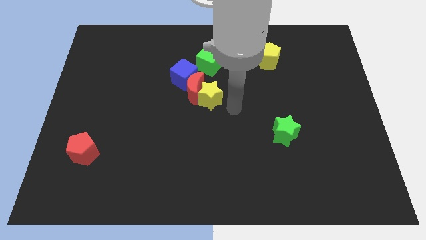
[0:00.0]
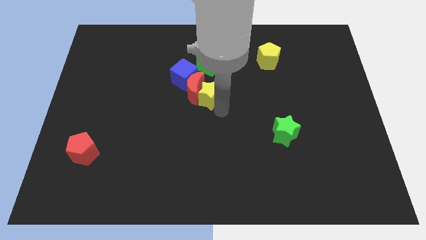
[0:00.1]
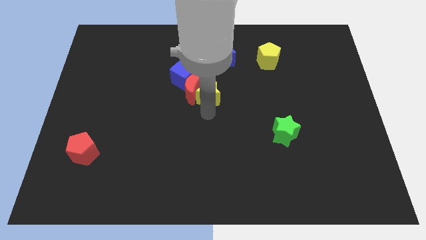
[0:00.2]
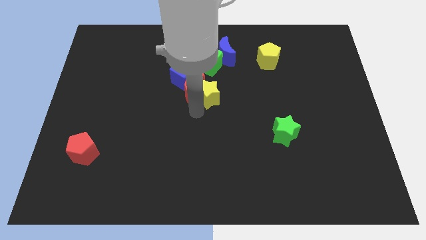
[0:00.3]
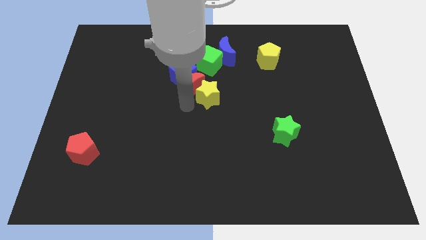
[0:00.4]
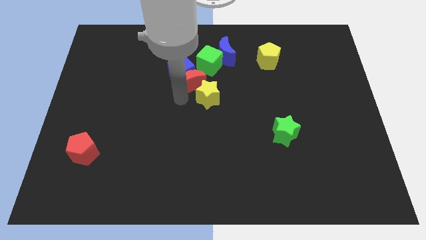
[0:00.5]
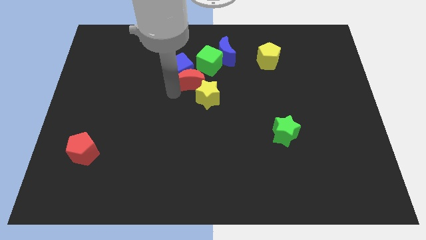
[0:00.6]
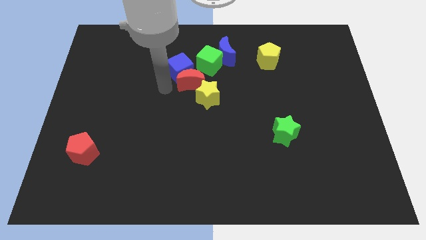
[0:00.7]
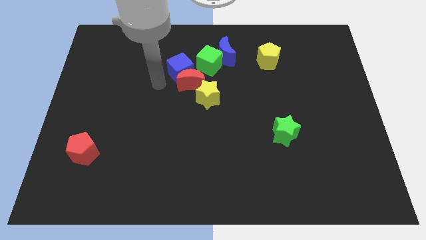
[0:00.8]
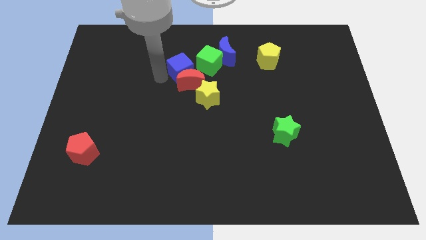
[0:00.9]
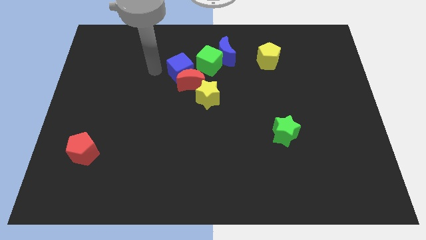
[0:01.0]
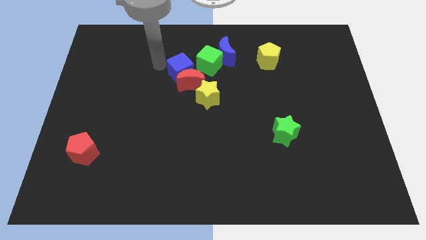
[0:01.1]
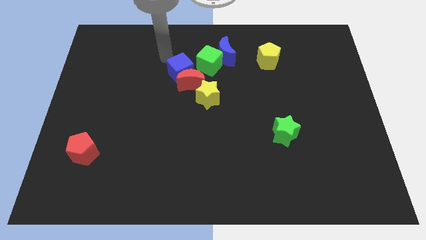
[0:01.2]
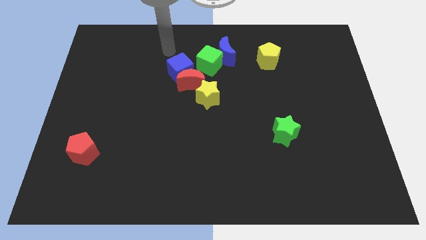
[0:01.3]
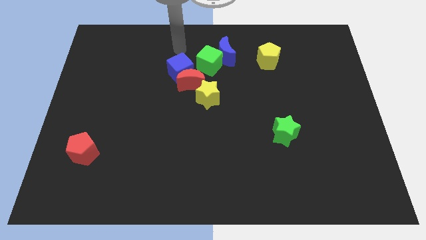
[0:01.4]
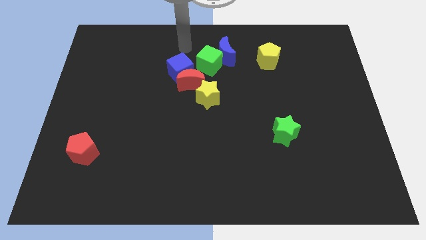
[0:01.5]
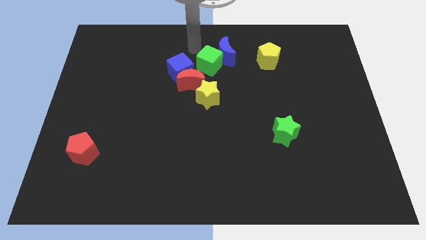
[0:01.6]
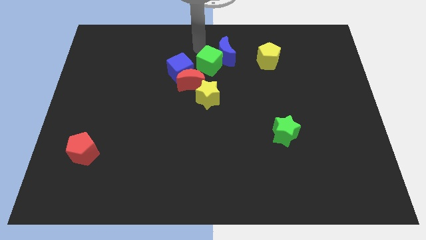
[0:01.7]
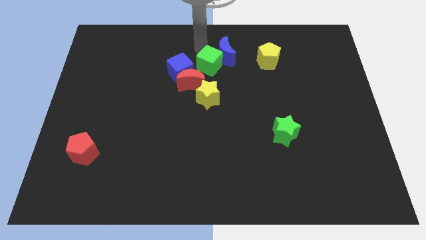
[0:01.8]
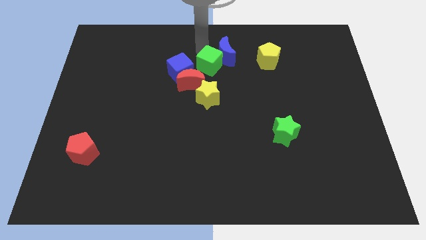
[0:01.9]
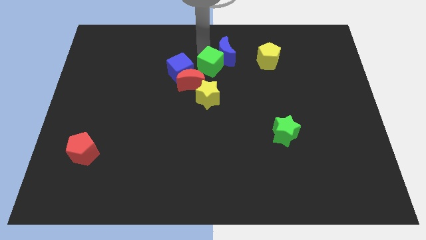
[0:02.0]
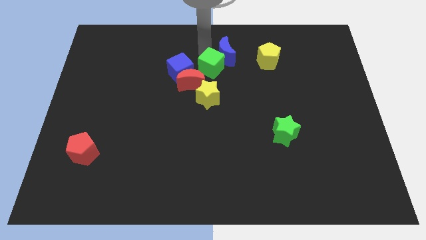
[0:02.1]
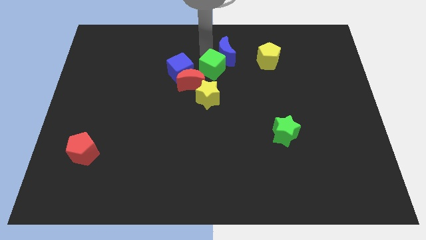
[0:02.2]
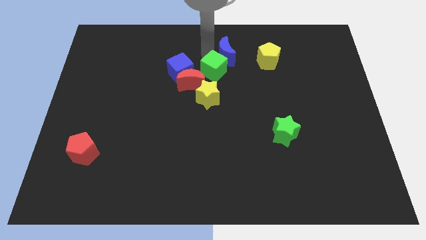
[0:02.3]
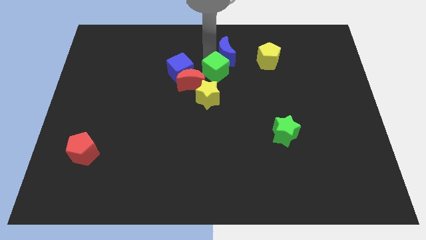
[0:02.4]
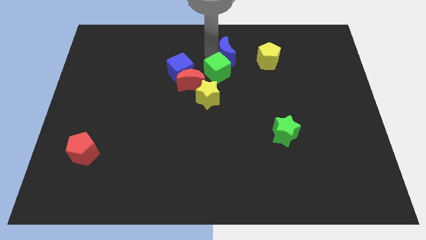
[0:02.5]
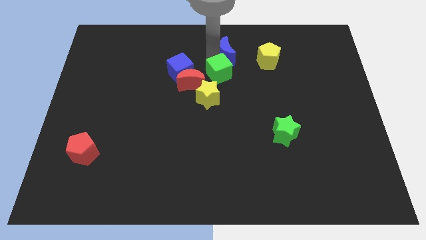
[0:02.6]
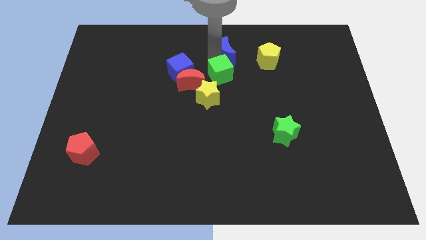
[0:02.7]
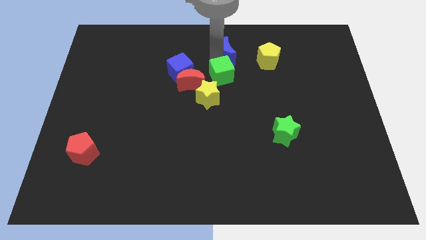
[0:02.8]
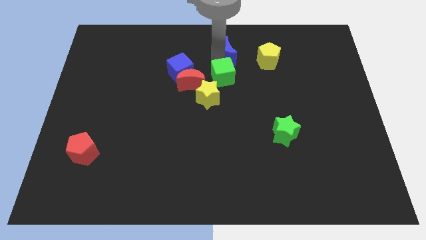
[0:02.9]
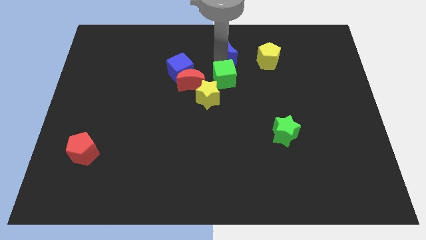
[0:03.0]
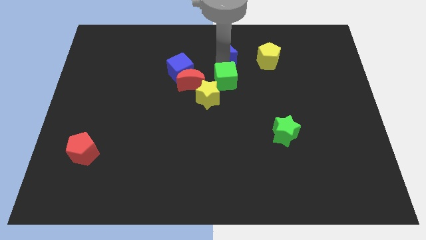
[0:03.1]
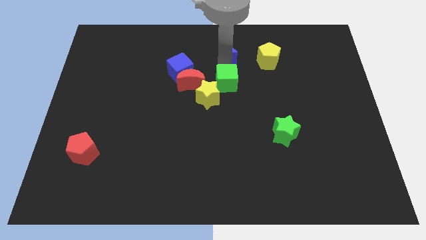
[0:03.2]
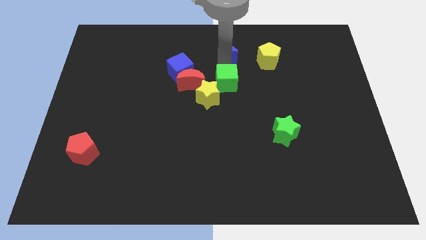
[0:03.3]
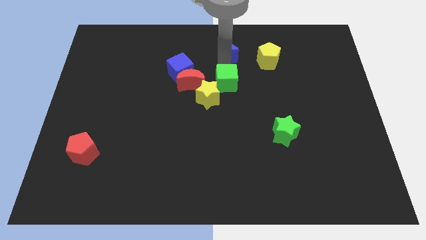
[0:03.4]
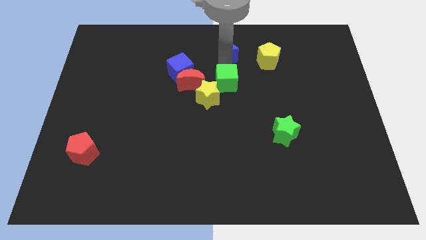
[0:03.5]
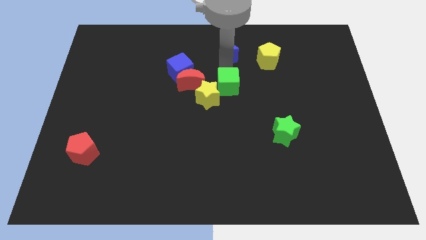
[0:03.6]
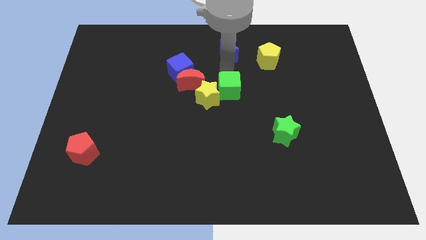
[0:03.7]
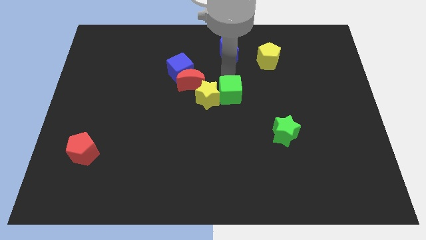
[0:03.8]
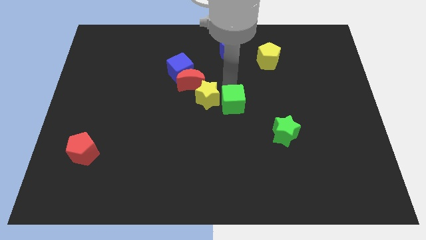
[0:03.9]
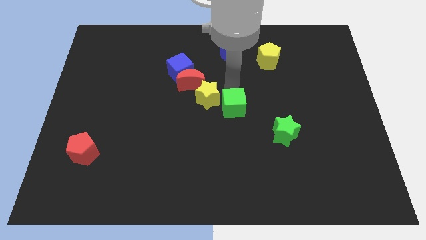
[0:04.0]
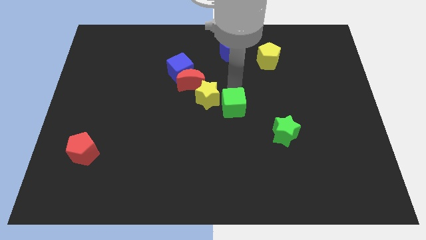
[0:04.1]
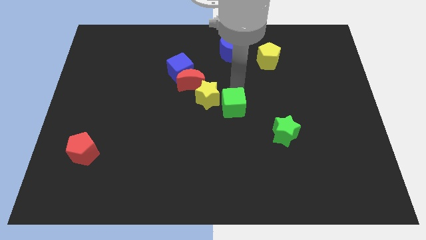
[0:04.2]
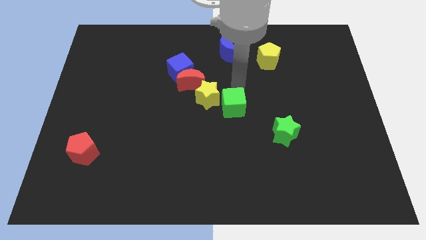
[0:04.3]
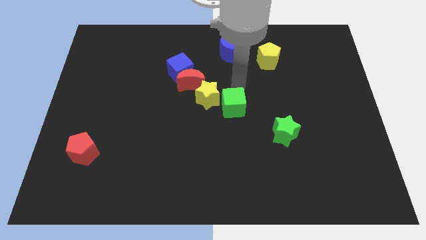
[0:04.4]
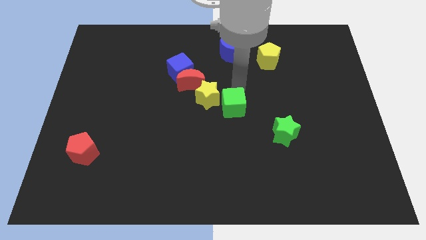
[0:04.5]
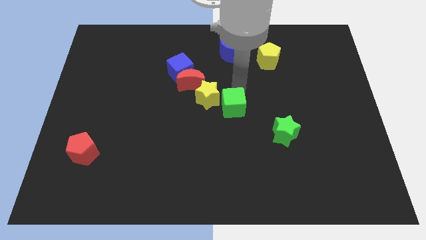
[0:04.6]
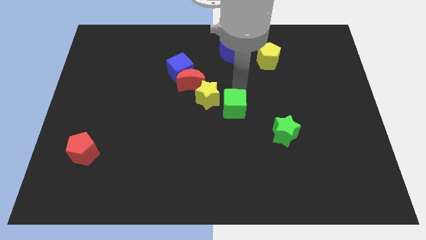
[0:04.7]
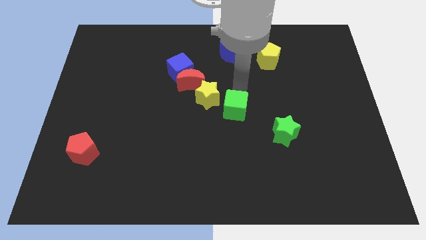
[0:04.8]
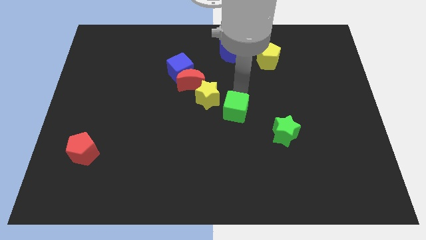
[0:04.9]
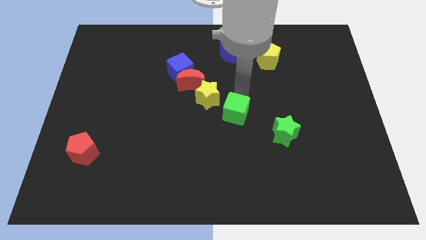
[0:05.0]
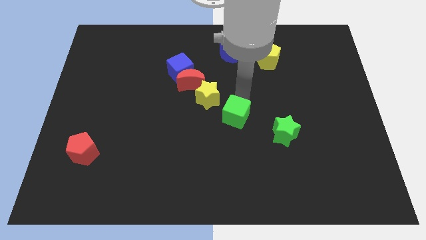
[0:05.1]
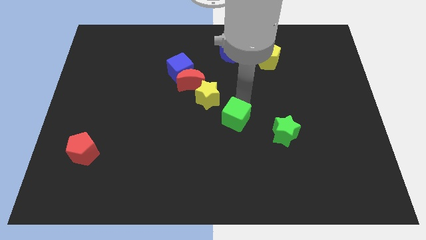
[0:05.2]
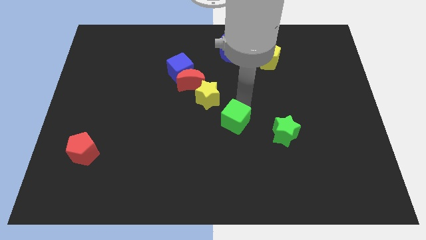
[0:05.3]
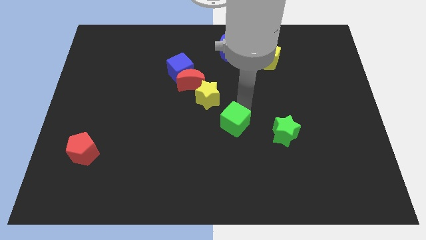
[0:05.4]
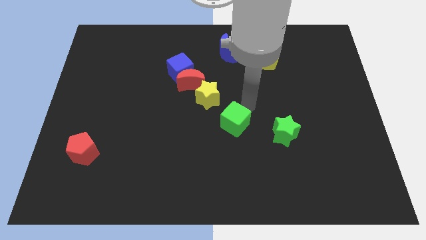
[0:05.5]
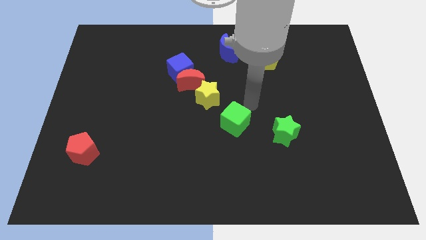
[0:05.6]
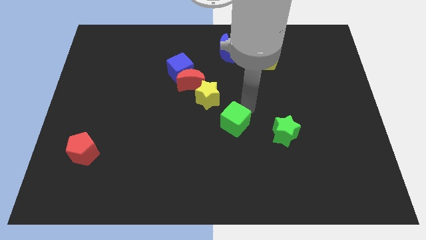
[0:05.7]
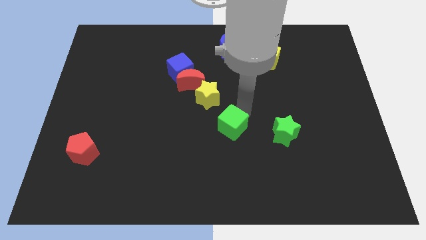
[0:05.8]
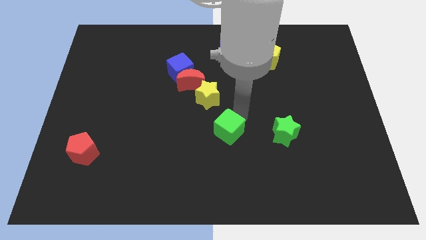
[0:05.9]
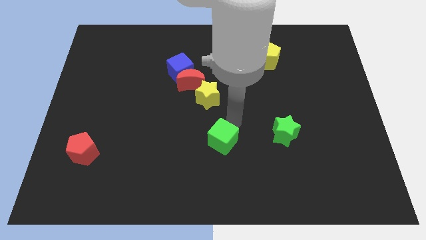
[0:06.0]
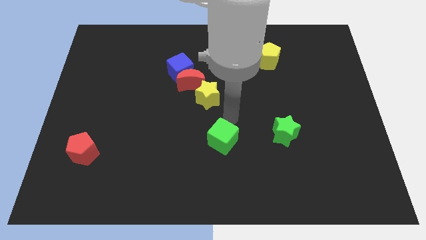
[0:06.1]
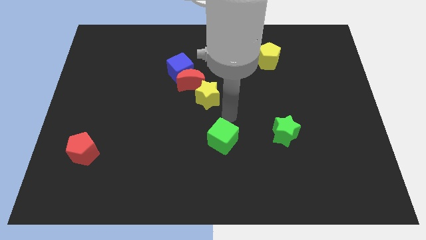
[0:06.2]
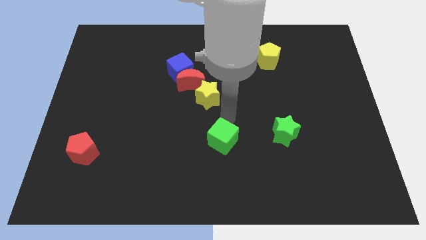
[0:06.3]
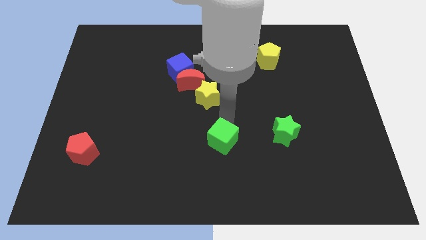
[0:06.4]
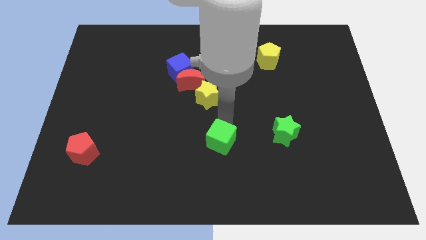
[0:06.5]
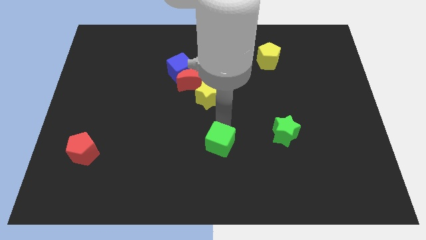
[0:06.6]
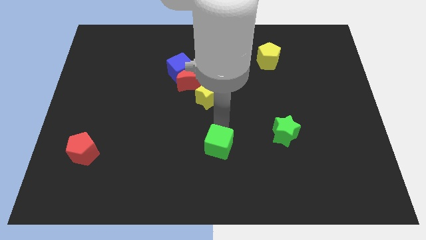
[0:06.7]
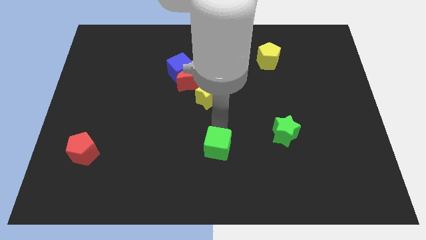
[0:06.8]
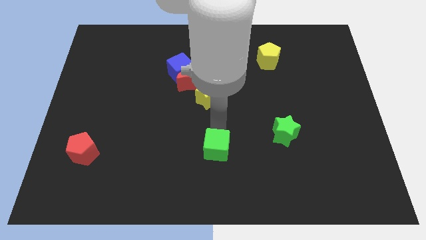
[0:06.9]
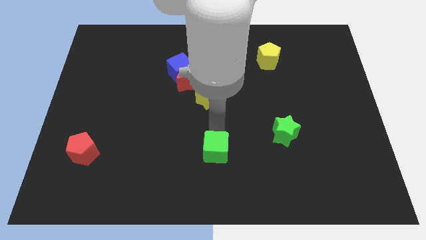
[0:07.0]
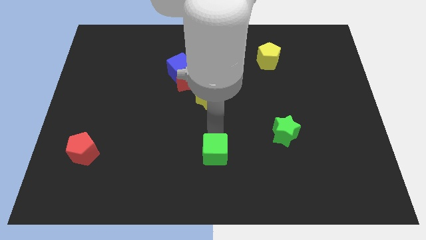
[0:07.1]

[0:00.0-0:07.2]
move the green cube to the bottom
